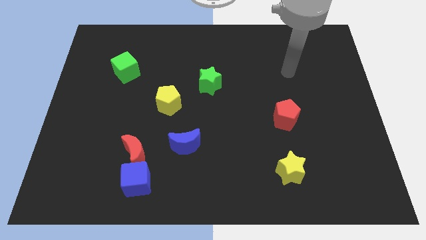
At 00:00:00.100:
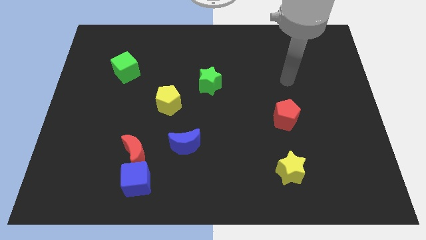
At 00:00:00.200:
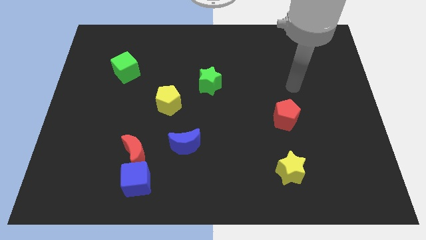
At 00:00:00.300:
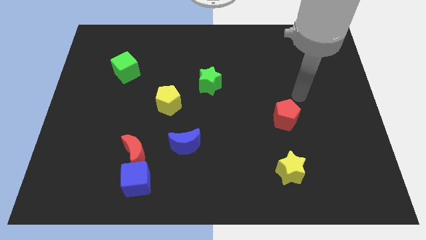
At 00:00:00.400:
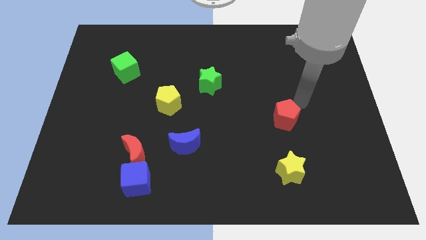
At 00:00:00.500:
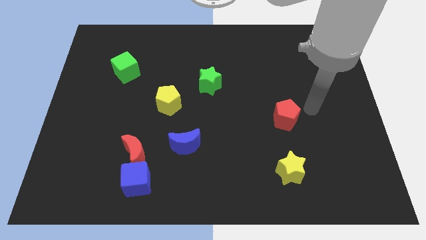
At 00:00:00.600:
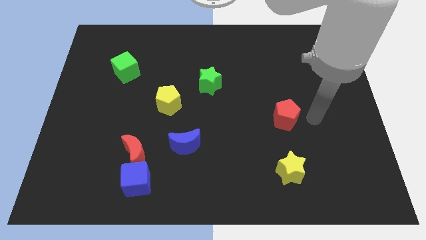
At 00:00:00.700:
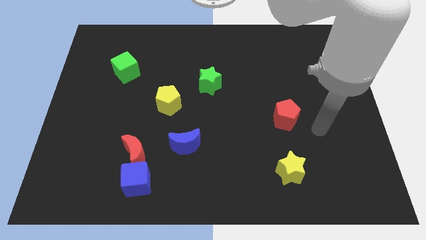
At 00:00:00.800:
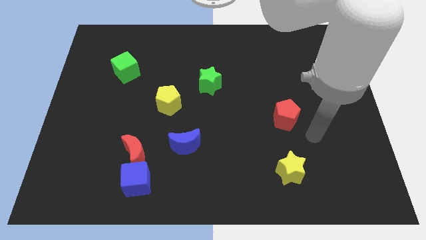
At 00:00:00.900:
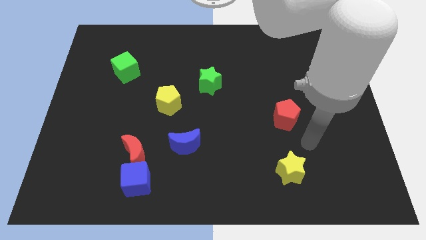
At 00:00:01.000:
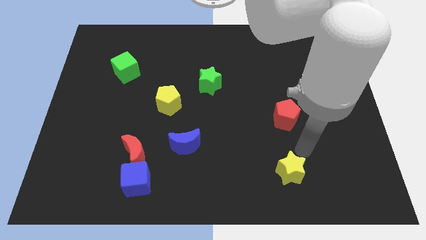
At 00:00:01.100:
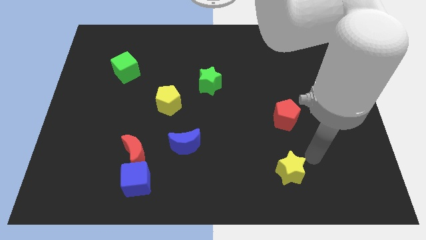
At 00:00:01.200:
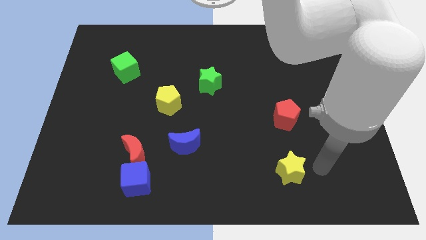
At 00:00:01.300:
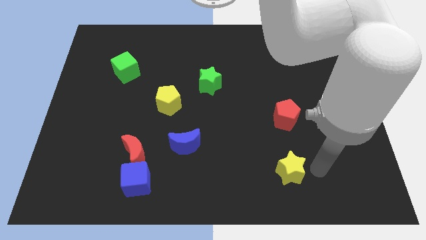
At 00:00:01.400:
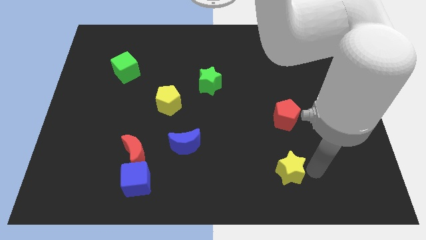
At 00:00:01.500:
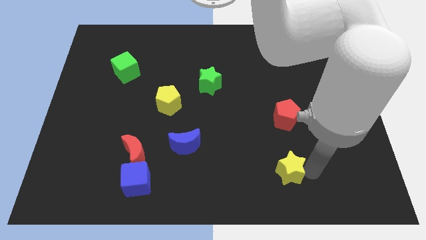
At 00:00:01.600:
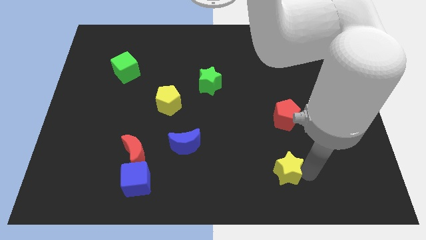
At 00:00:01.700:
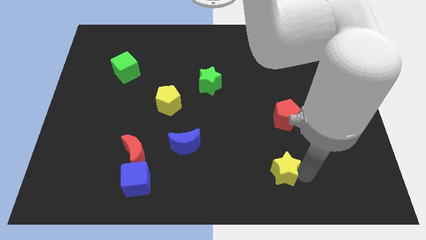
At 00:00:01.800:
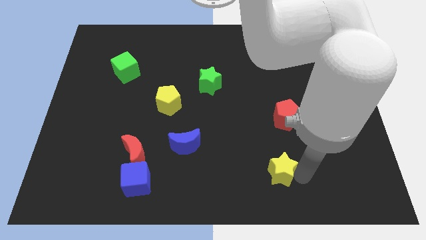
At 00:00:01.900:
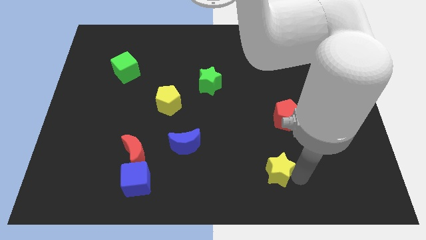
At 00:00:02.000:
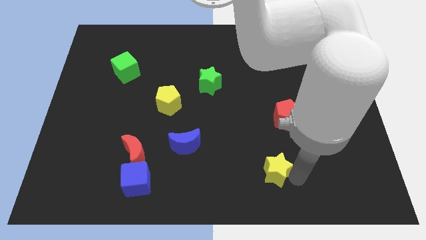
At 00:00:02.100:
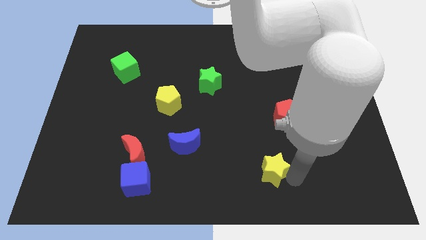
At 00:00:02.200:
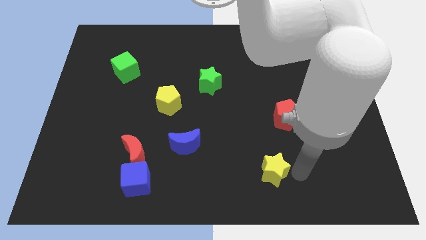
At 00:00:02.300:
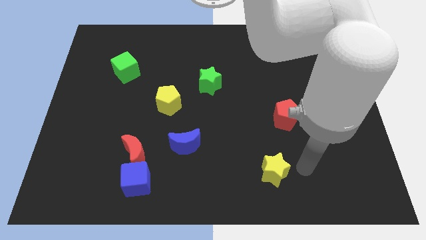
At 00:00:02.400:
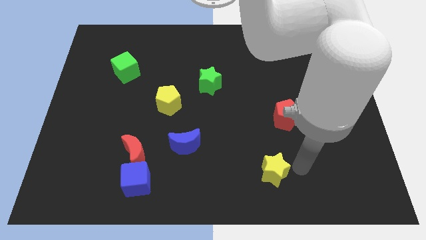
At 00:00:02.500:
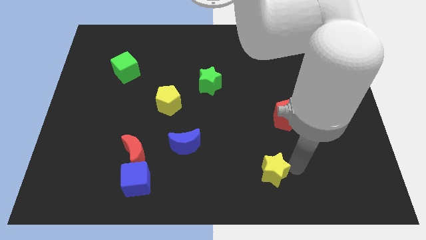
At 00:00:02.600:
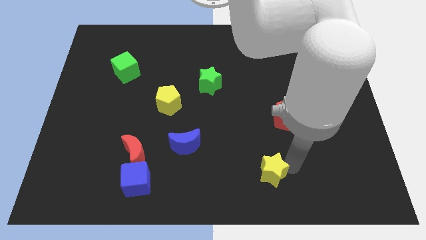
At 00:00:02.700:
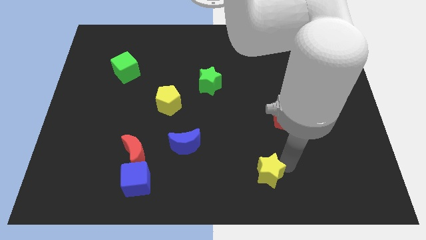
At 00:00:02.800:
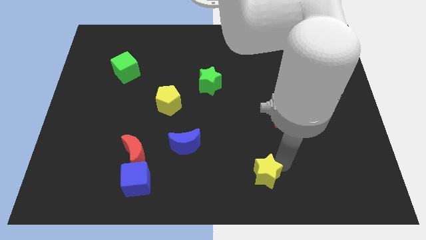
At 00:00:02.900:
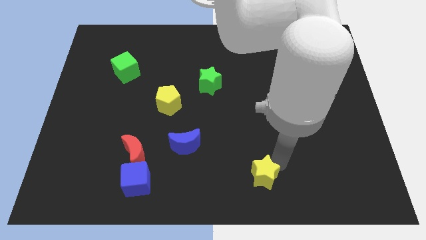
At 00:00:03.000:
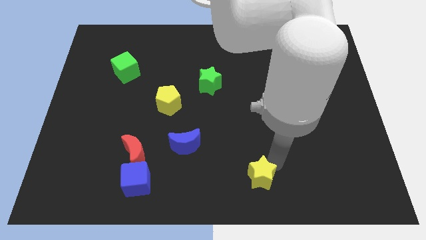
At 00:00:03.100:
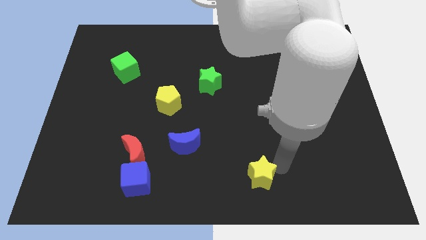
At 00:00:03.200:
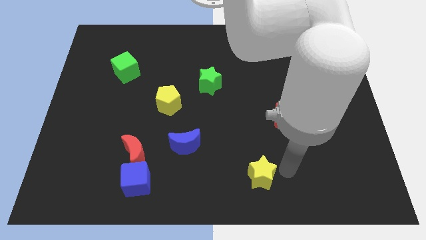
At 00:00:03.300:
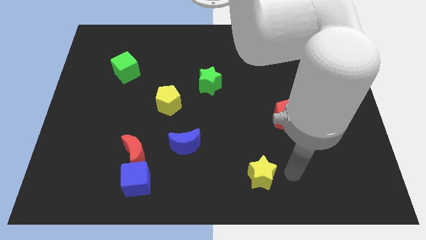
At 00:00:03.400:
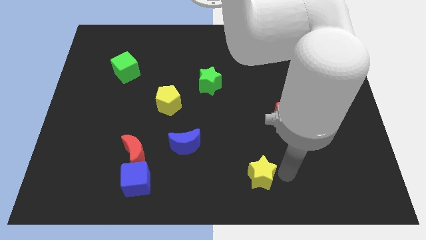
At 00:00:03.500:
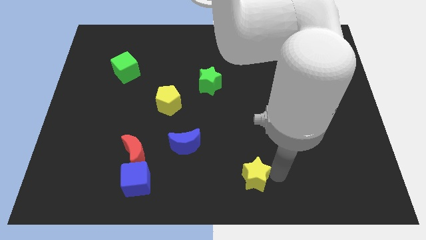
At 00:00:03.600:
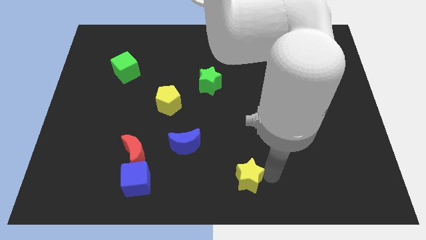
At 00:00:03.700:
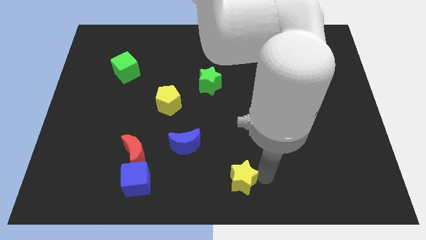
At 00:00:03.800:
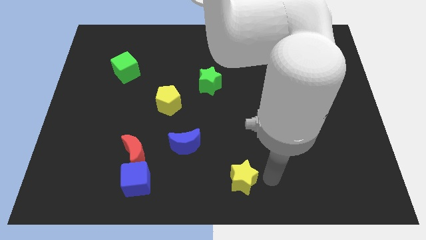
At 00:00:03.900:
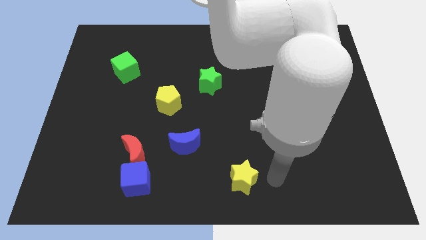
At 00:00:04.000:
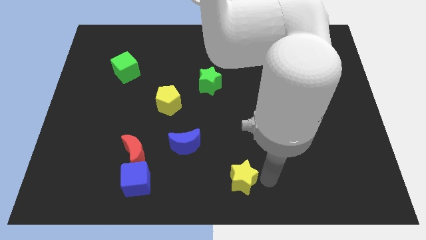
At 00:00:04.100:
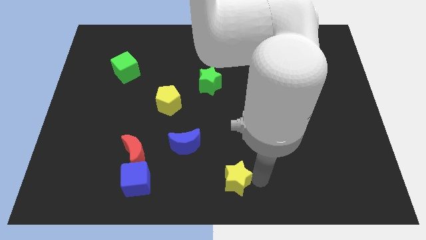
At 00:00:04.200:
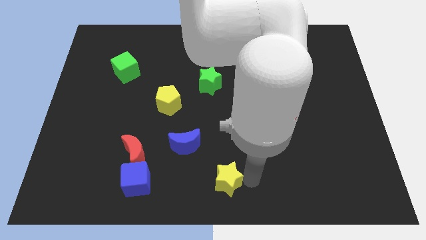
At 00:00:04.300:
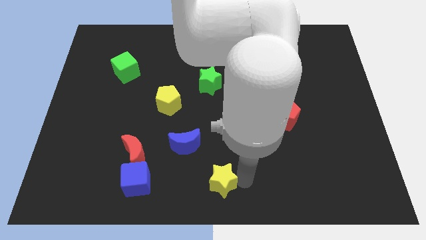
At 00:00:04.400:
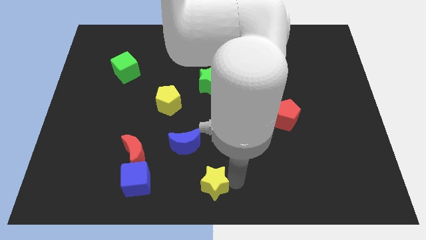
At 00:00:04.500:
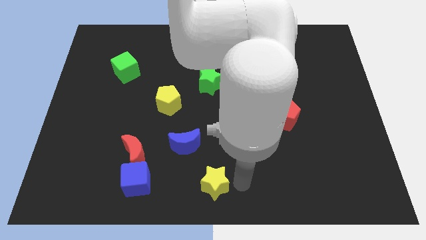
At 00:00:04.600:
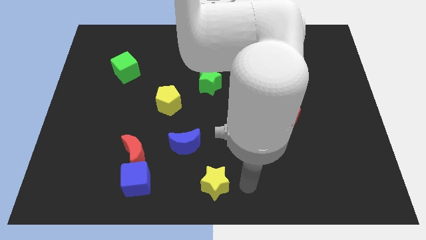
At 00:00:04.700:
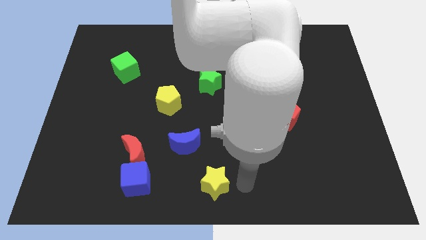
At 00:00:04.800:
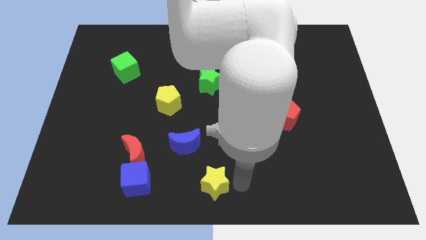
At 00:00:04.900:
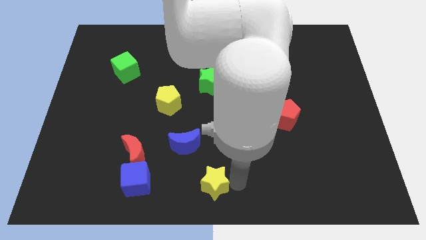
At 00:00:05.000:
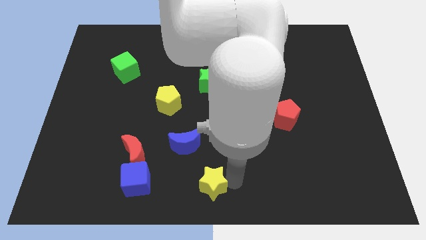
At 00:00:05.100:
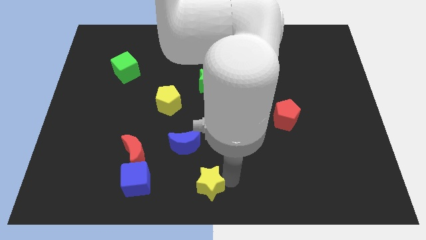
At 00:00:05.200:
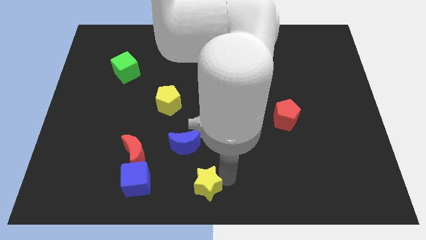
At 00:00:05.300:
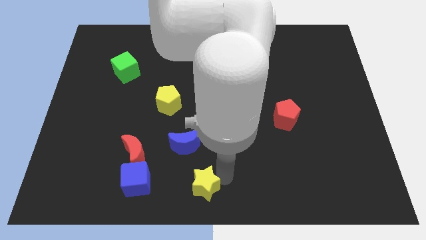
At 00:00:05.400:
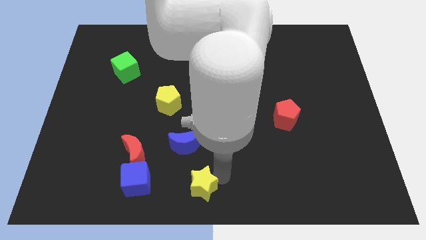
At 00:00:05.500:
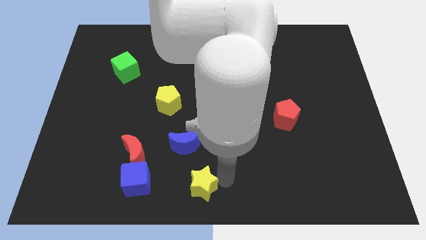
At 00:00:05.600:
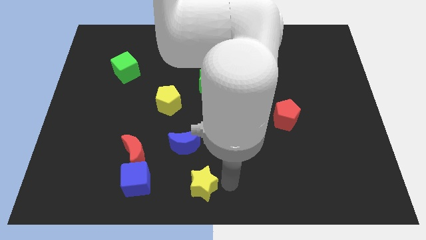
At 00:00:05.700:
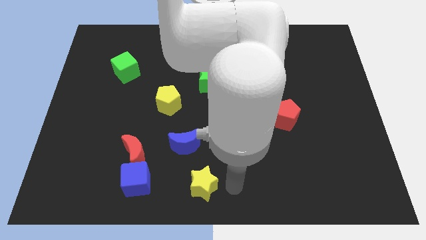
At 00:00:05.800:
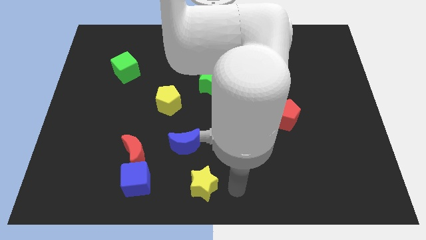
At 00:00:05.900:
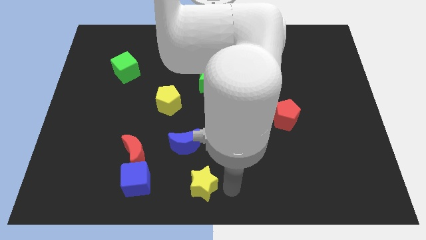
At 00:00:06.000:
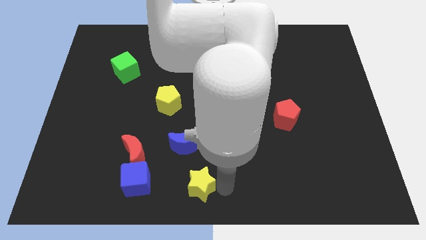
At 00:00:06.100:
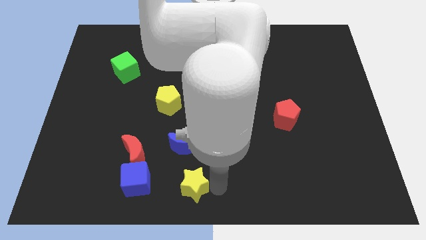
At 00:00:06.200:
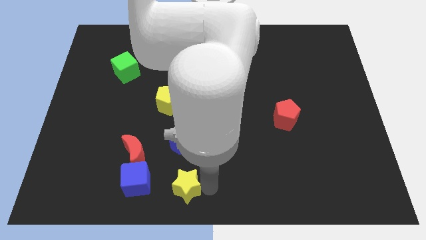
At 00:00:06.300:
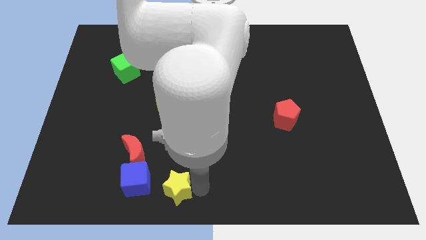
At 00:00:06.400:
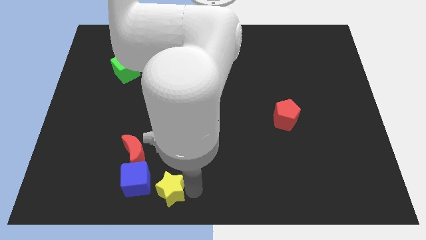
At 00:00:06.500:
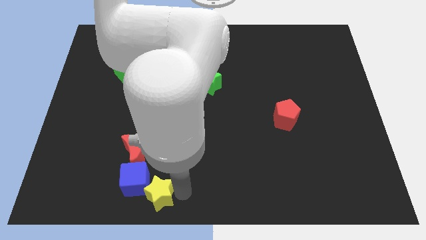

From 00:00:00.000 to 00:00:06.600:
slide the yellow star close to the blue cube
